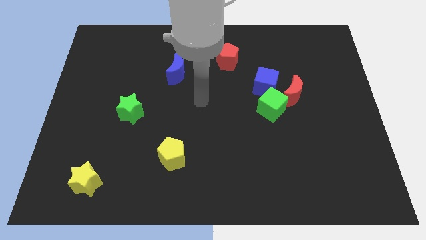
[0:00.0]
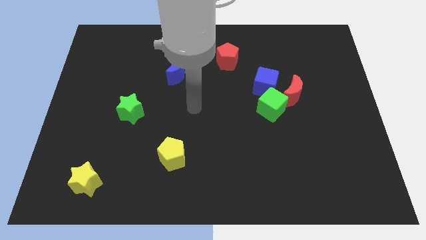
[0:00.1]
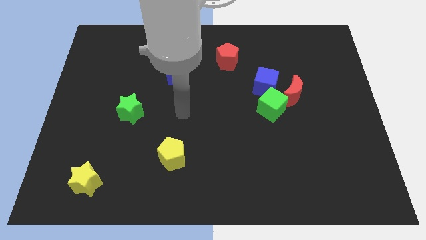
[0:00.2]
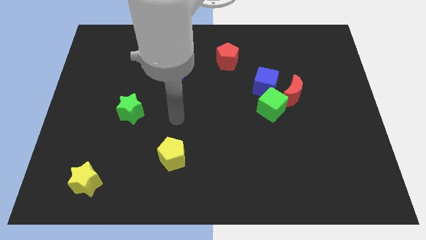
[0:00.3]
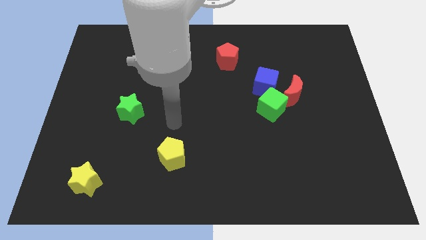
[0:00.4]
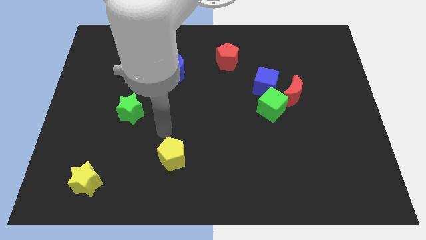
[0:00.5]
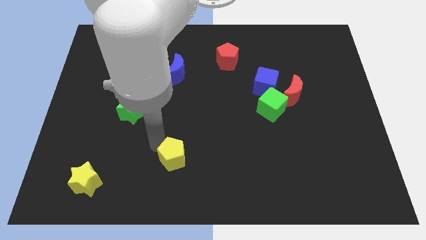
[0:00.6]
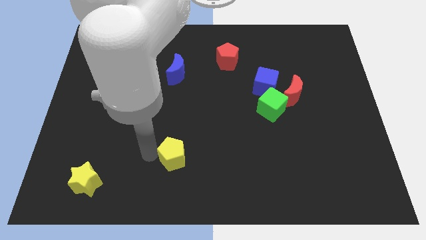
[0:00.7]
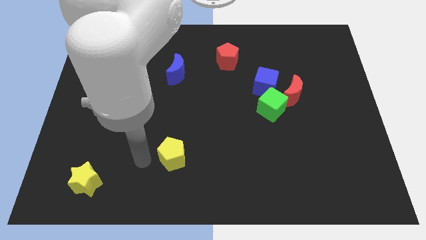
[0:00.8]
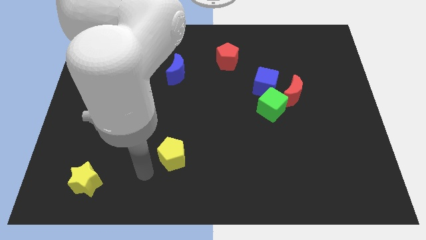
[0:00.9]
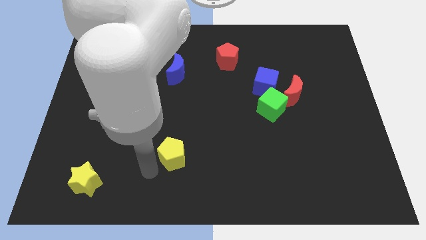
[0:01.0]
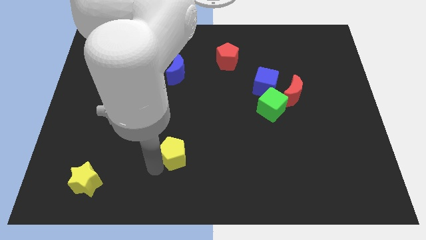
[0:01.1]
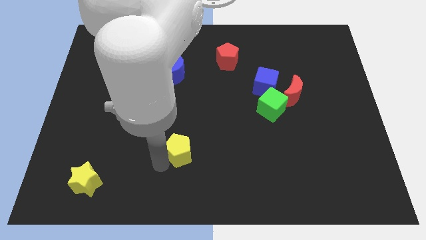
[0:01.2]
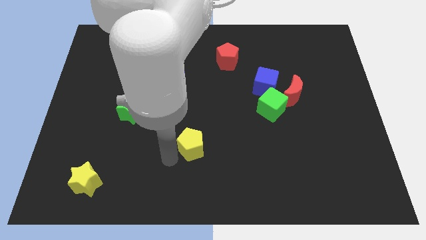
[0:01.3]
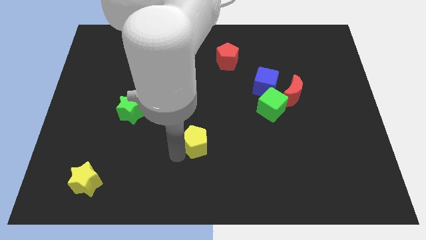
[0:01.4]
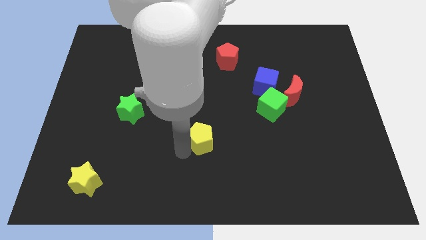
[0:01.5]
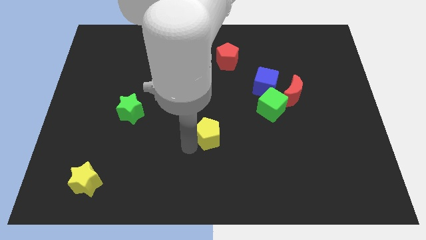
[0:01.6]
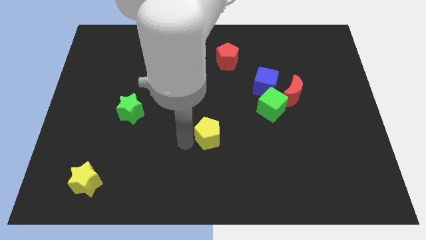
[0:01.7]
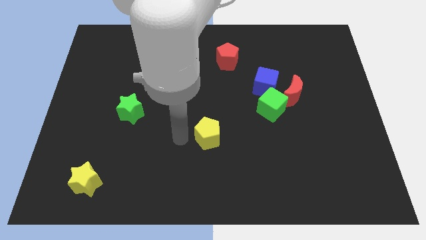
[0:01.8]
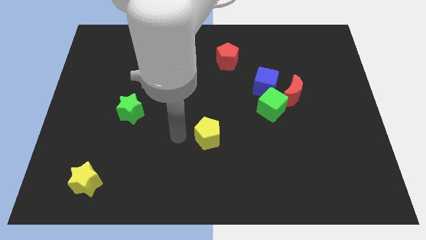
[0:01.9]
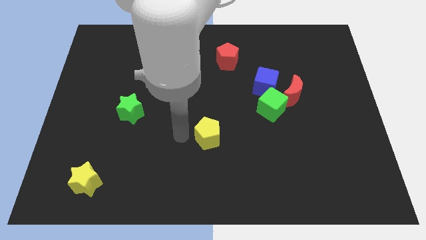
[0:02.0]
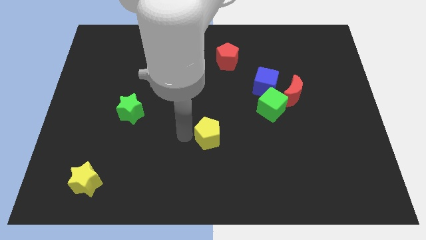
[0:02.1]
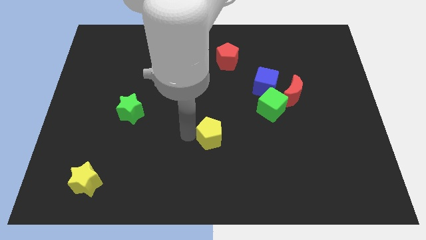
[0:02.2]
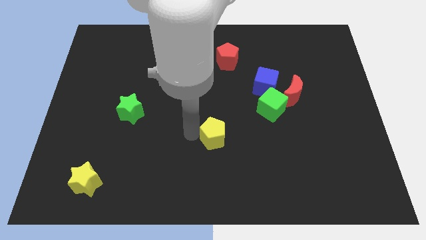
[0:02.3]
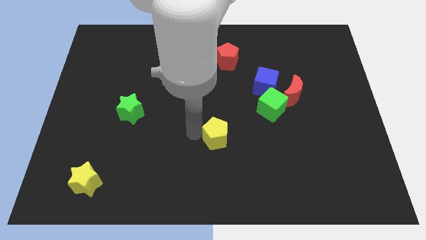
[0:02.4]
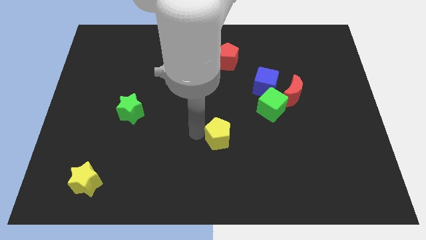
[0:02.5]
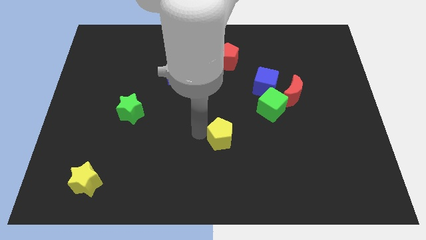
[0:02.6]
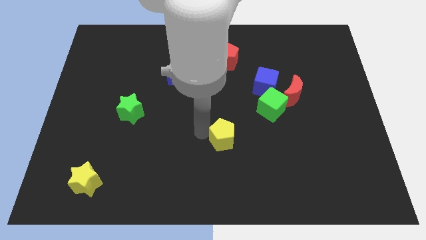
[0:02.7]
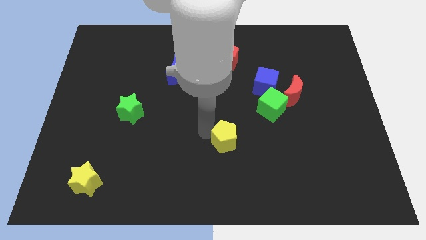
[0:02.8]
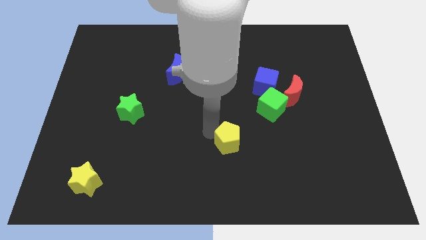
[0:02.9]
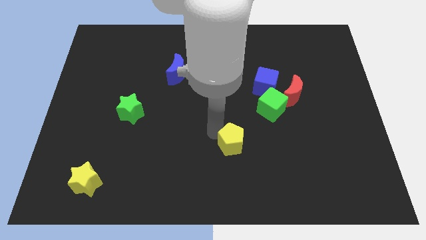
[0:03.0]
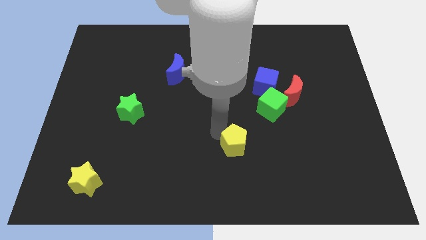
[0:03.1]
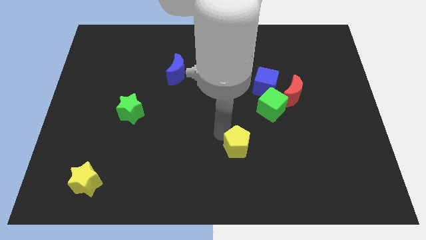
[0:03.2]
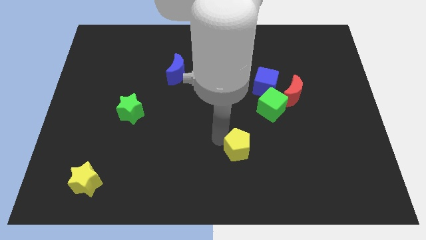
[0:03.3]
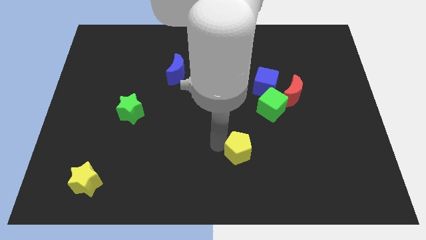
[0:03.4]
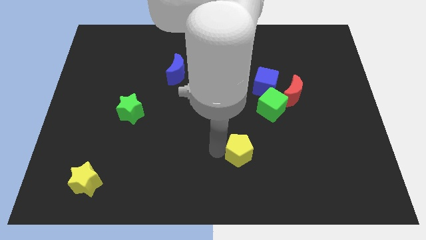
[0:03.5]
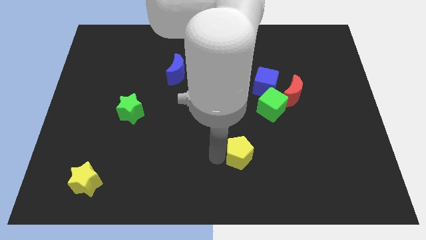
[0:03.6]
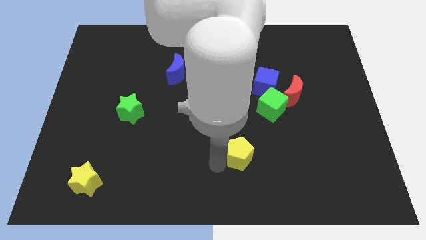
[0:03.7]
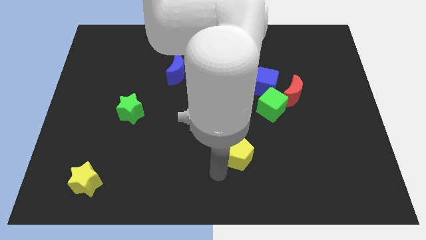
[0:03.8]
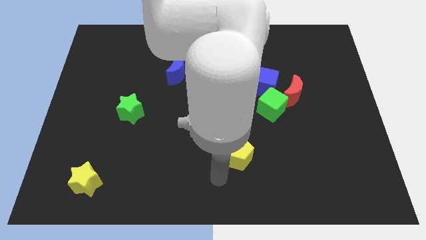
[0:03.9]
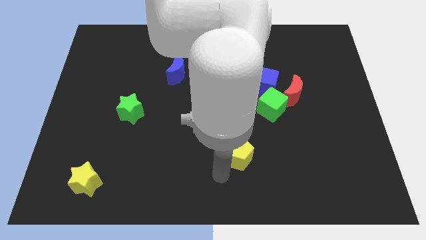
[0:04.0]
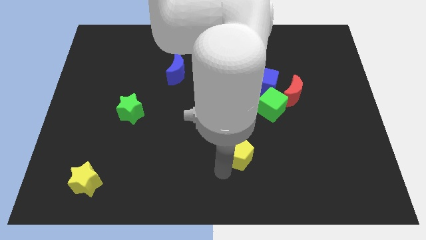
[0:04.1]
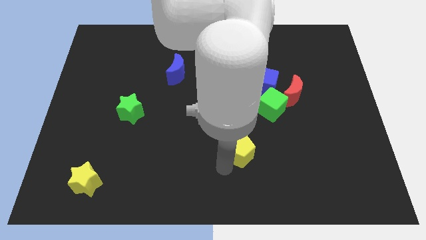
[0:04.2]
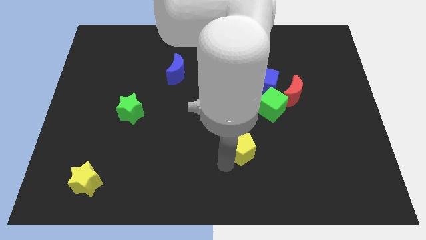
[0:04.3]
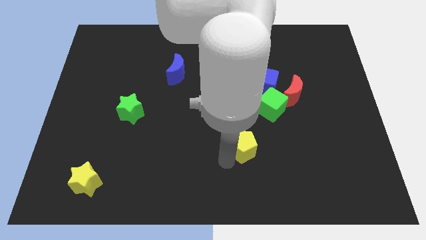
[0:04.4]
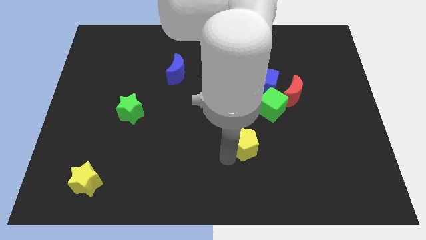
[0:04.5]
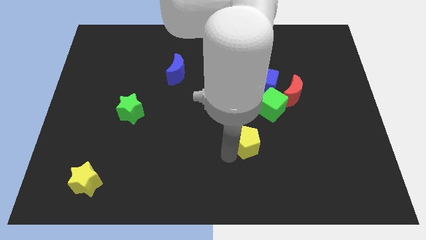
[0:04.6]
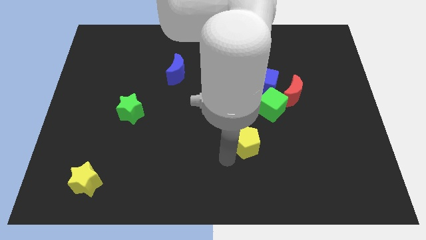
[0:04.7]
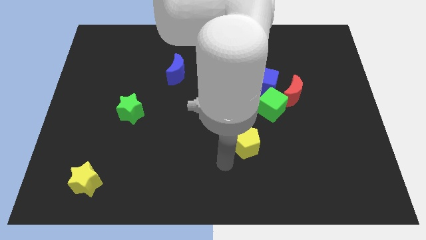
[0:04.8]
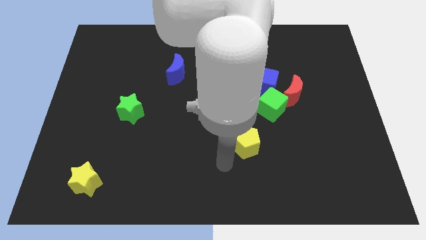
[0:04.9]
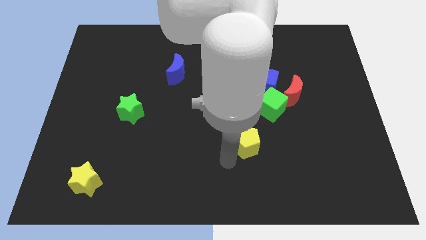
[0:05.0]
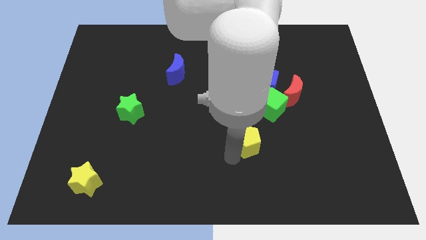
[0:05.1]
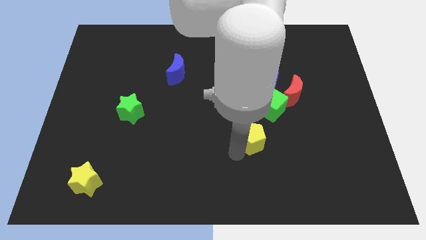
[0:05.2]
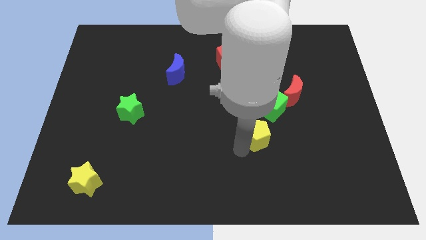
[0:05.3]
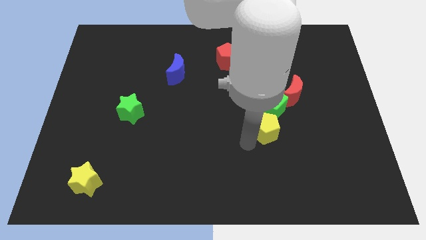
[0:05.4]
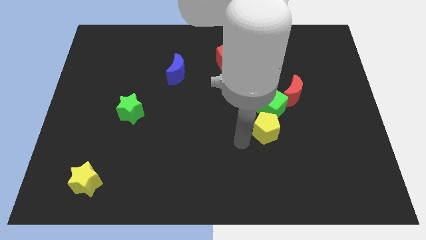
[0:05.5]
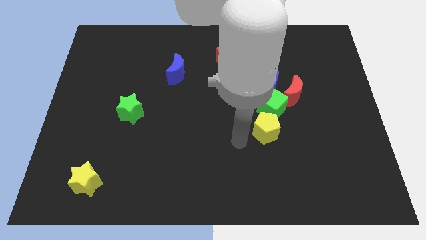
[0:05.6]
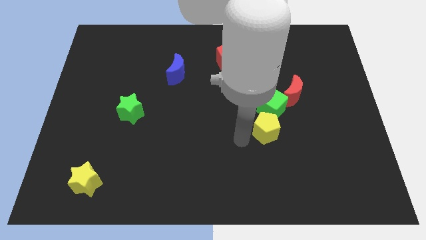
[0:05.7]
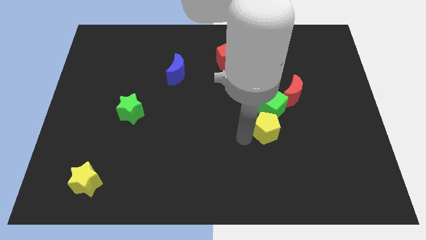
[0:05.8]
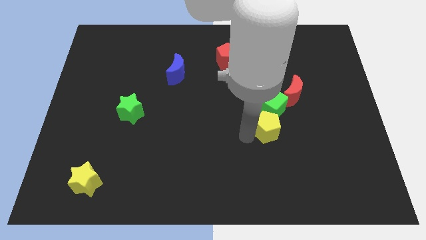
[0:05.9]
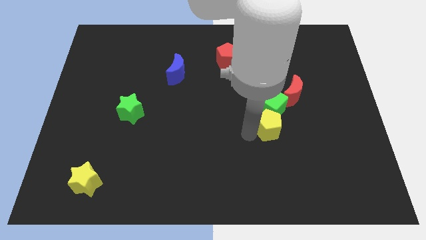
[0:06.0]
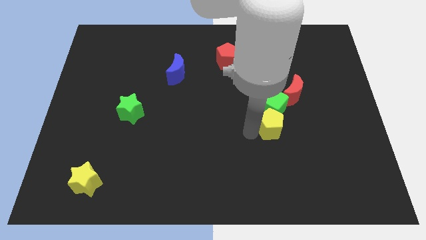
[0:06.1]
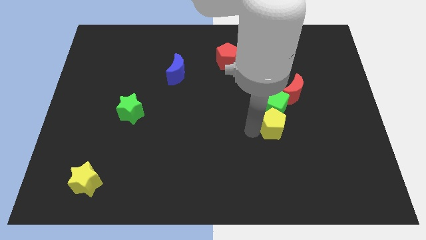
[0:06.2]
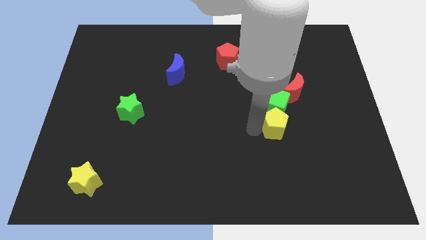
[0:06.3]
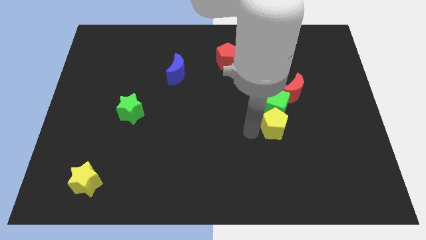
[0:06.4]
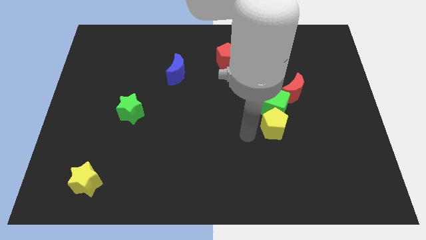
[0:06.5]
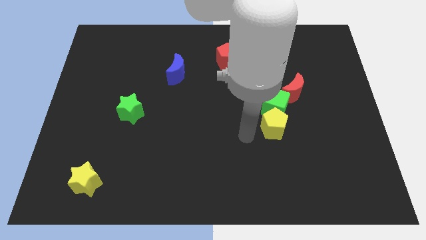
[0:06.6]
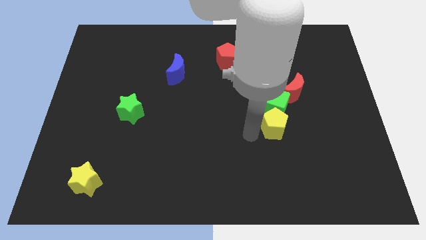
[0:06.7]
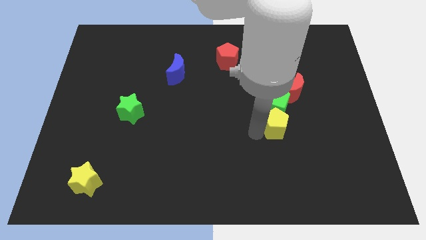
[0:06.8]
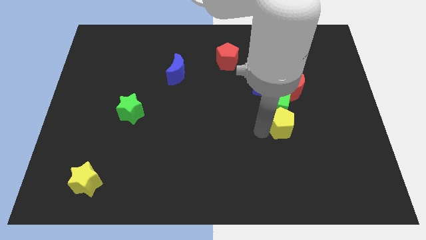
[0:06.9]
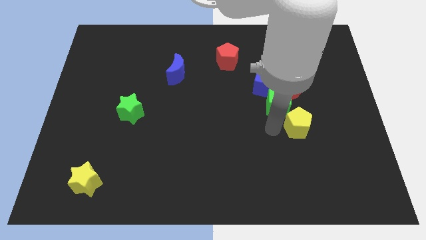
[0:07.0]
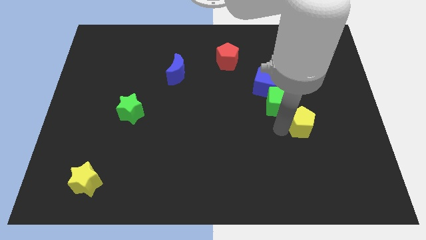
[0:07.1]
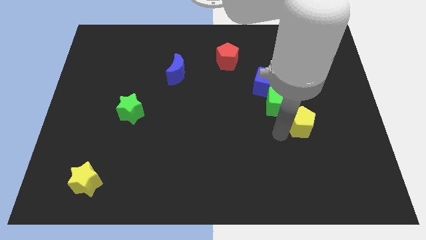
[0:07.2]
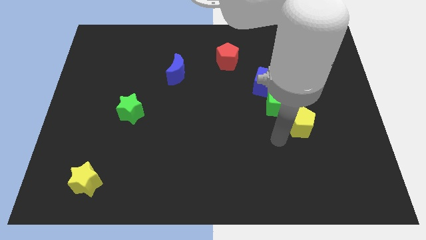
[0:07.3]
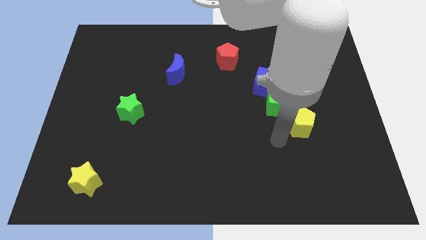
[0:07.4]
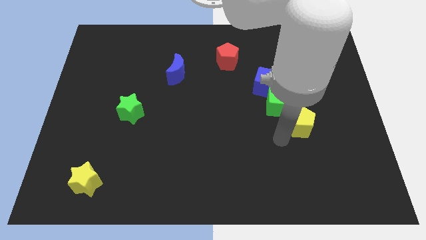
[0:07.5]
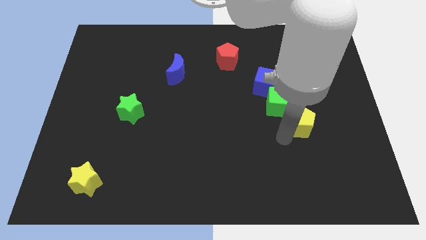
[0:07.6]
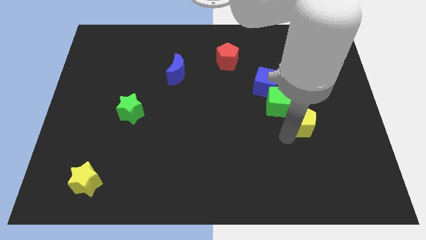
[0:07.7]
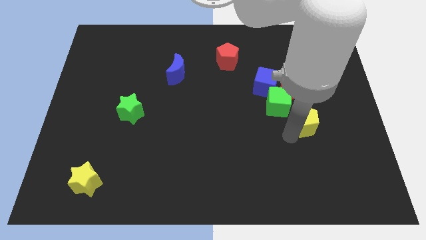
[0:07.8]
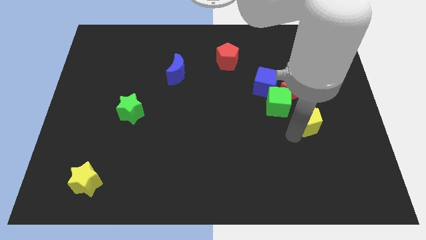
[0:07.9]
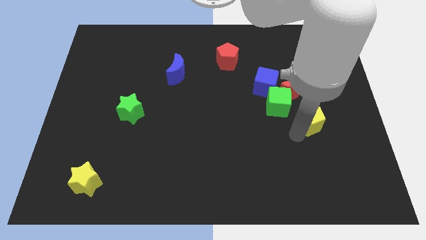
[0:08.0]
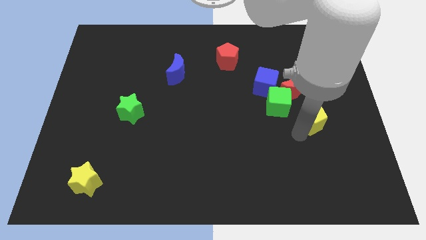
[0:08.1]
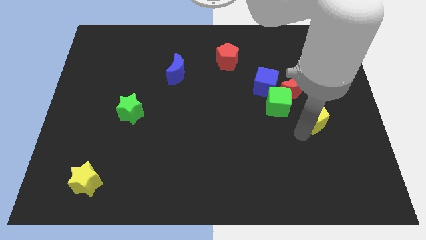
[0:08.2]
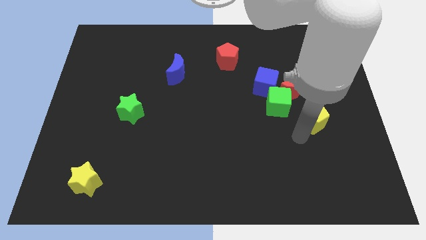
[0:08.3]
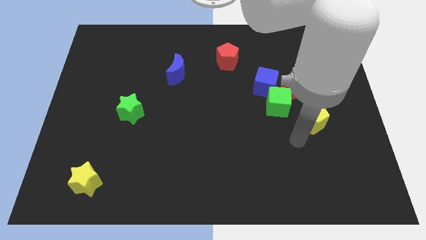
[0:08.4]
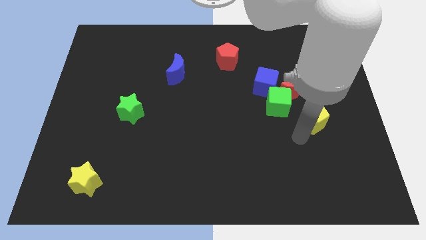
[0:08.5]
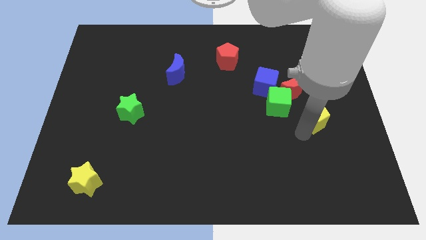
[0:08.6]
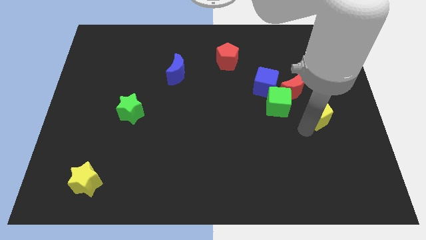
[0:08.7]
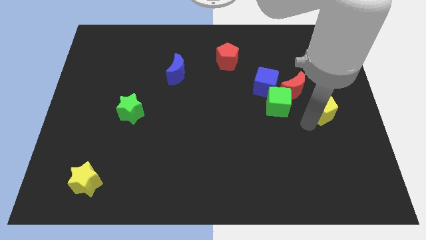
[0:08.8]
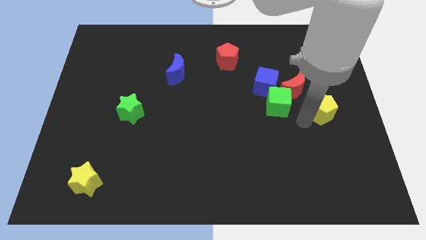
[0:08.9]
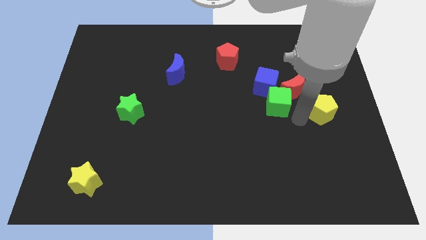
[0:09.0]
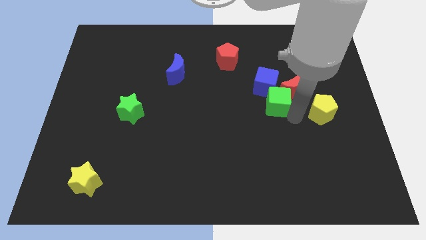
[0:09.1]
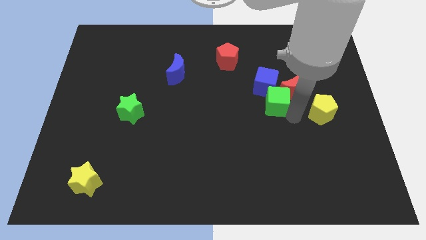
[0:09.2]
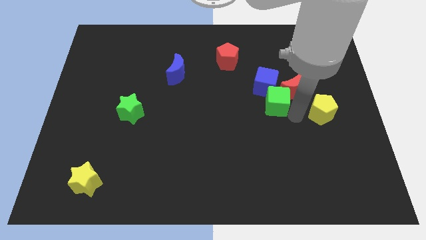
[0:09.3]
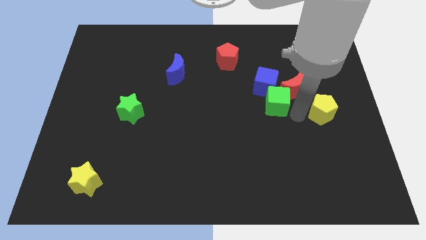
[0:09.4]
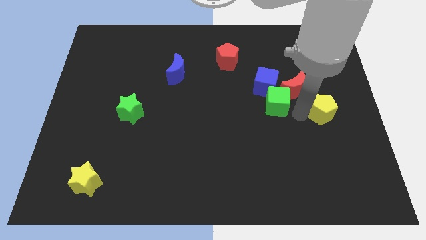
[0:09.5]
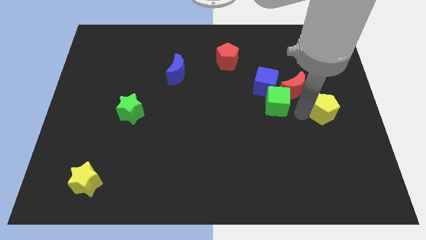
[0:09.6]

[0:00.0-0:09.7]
put the yellow pentagon to the right side
